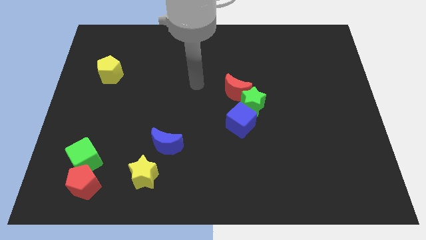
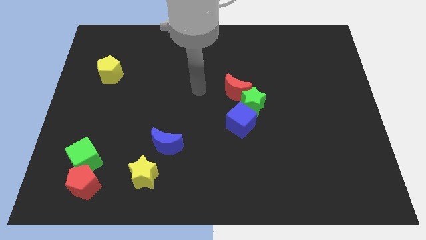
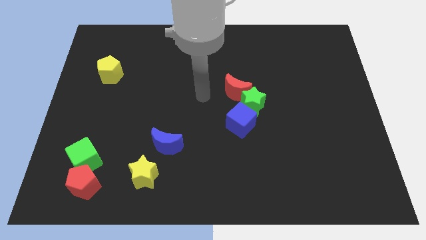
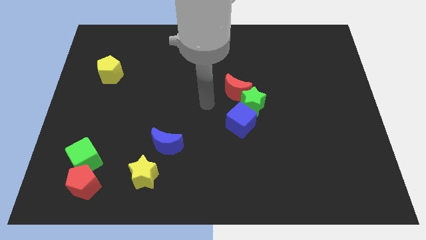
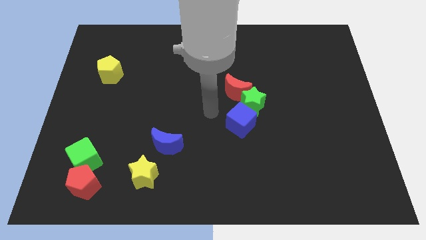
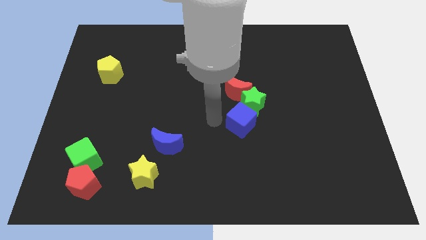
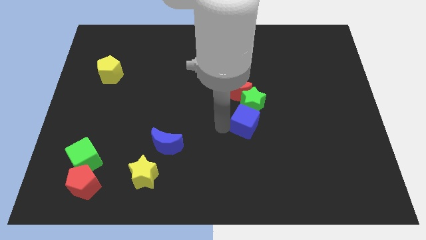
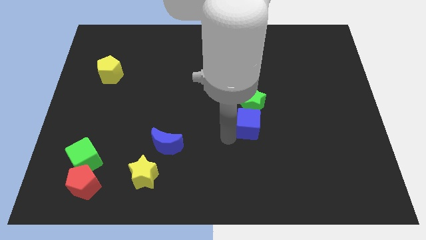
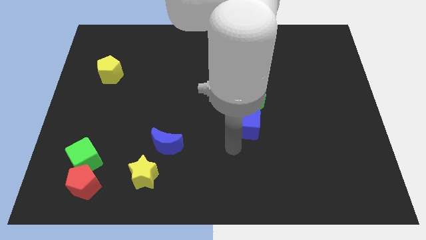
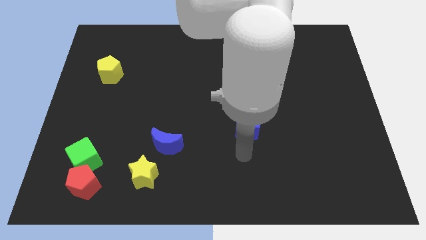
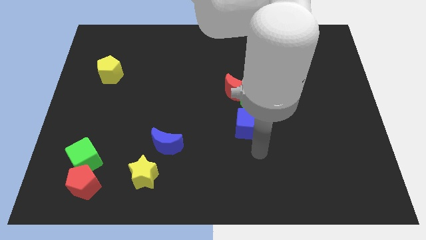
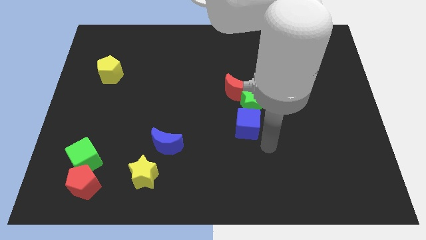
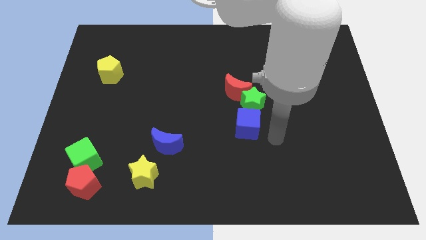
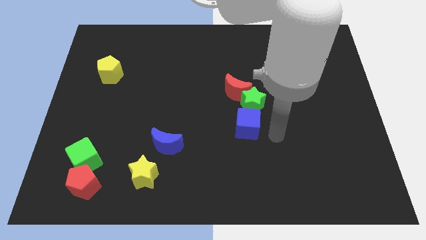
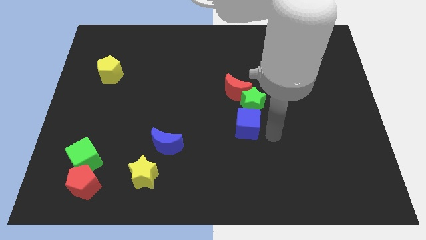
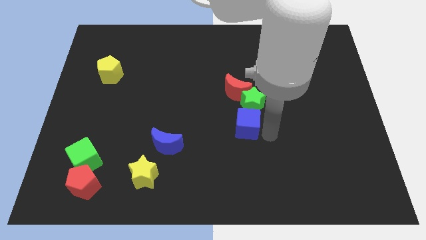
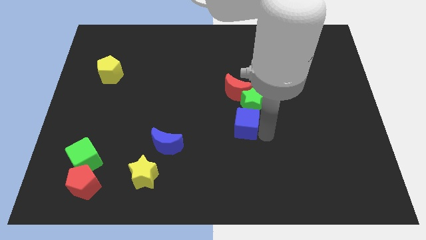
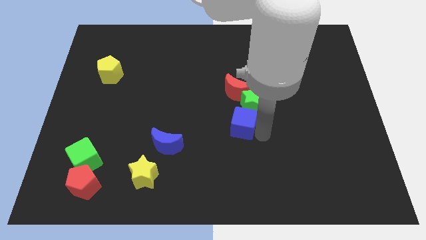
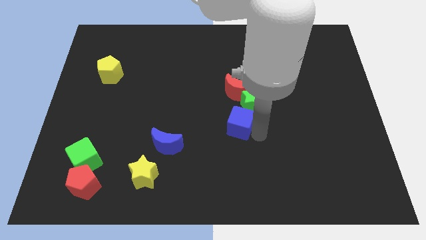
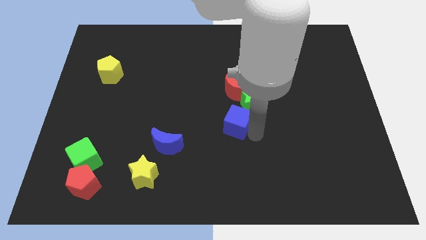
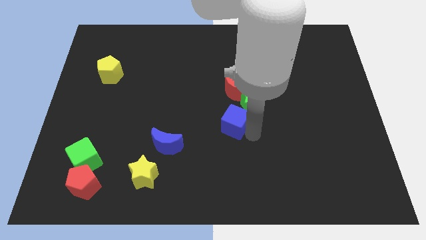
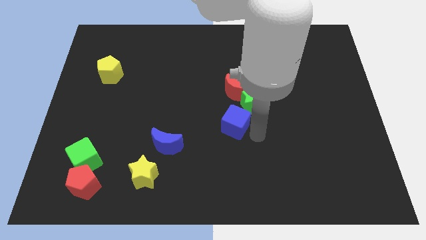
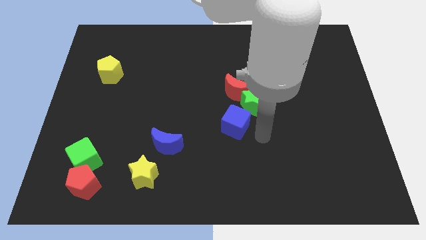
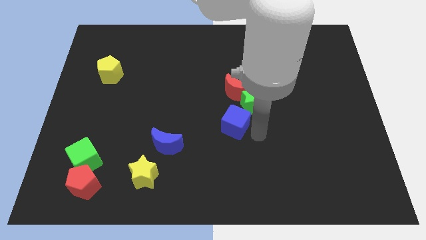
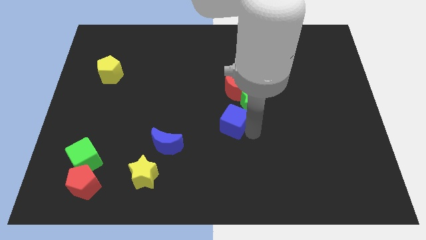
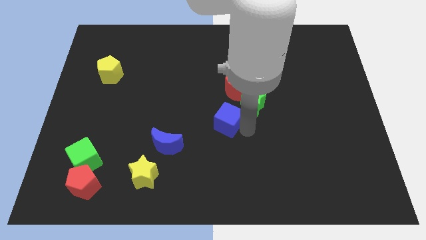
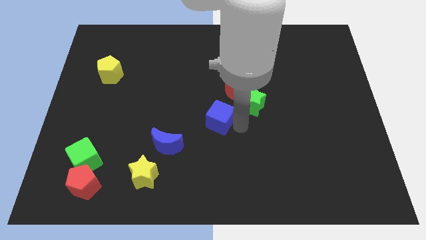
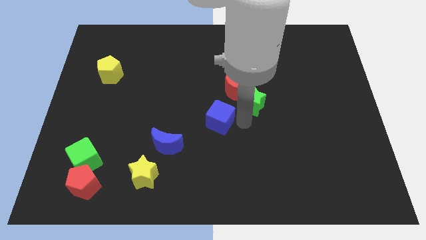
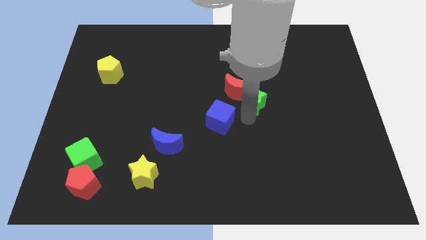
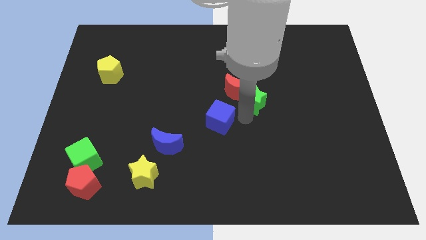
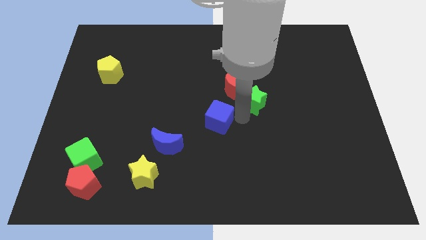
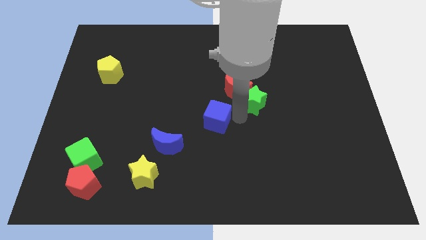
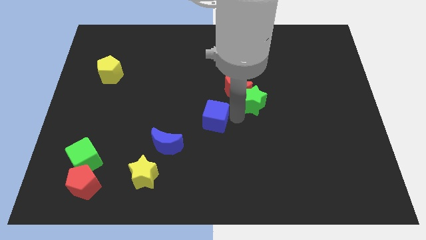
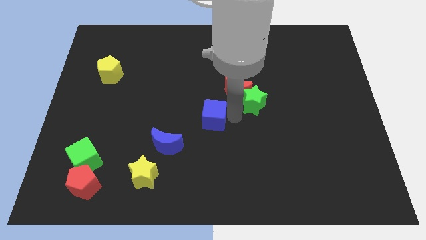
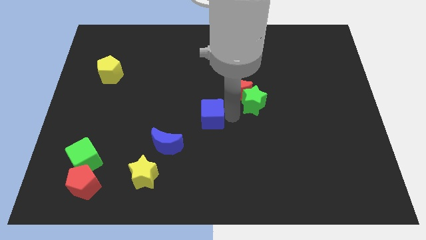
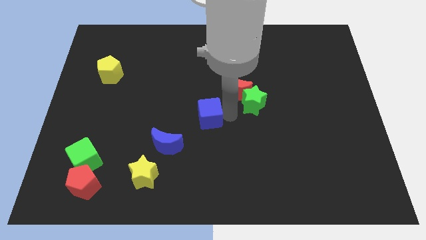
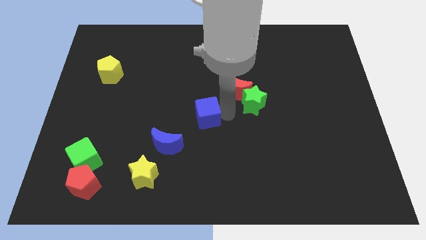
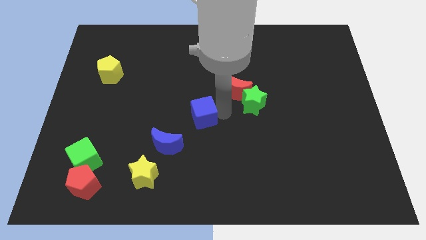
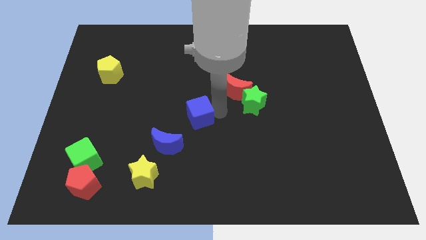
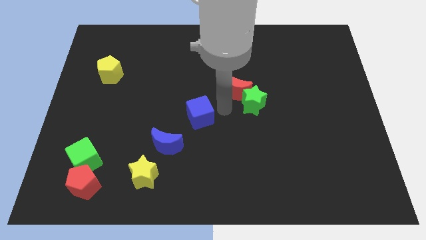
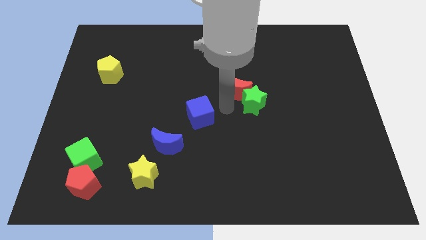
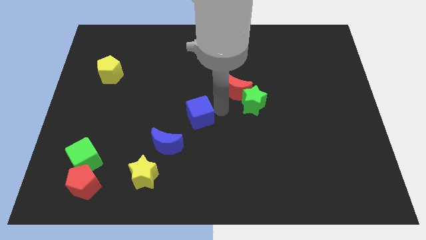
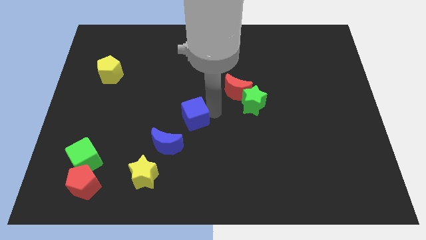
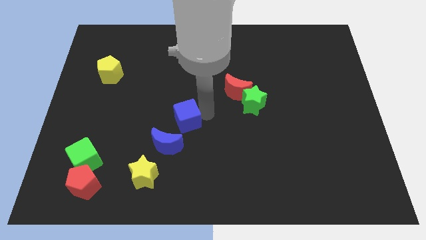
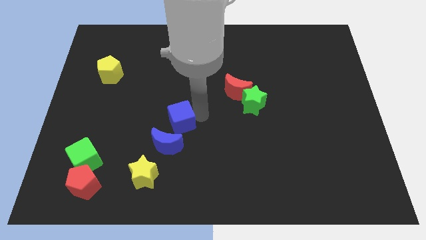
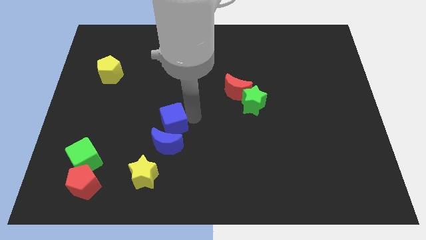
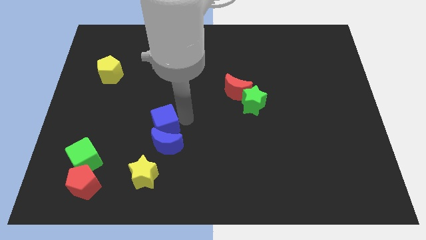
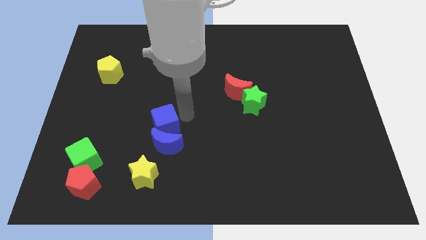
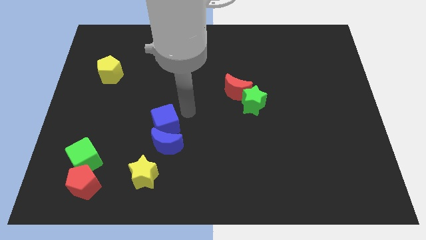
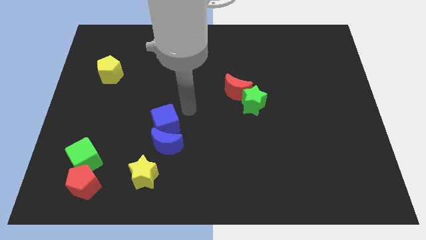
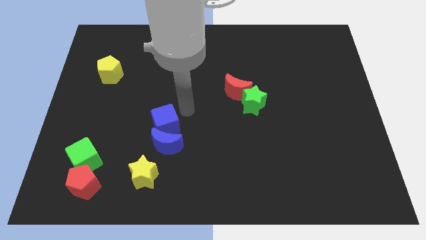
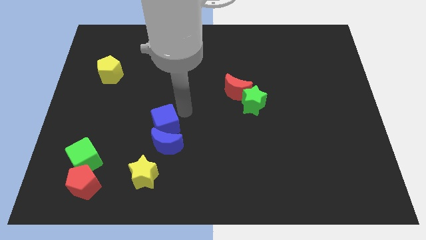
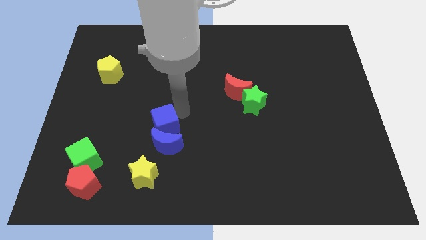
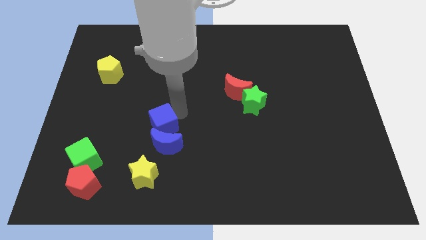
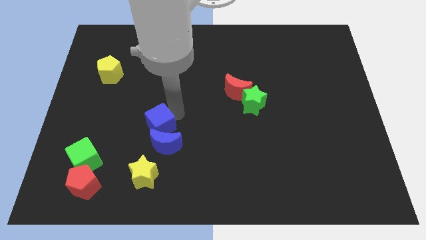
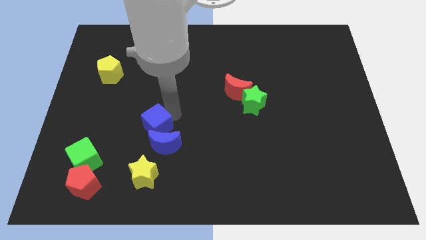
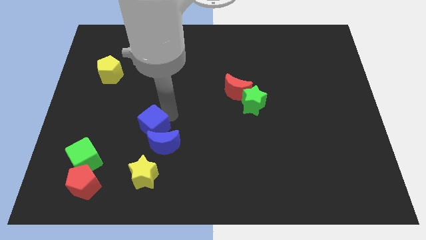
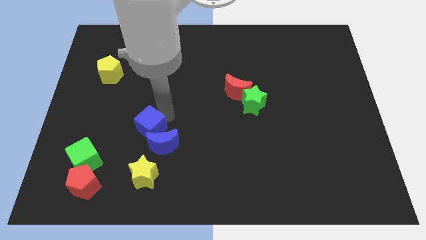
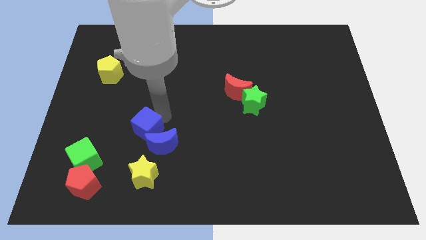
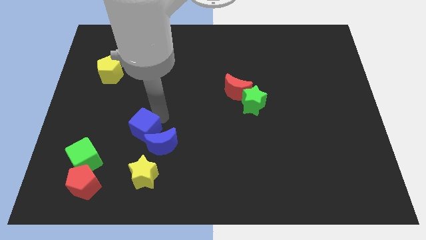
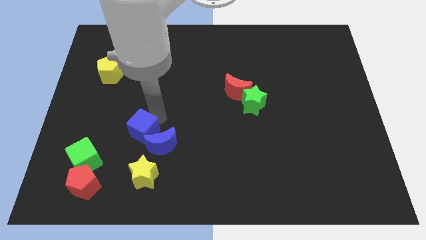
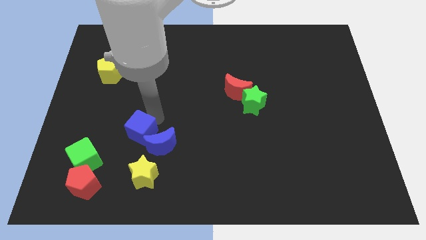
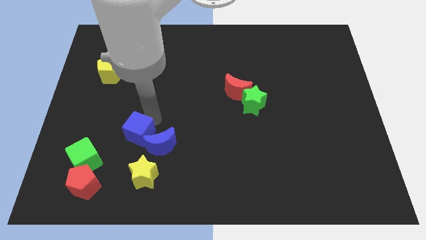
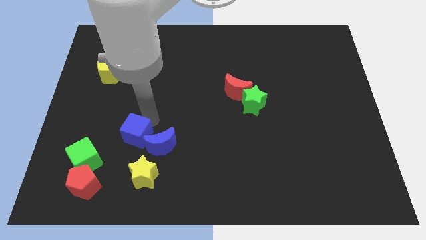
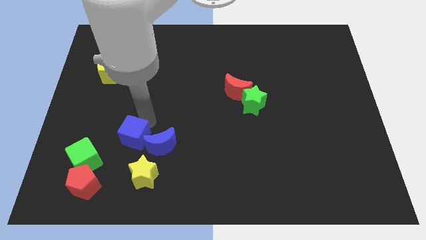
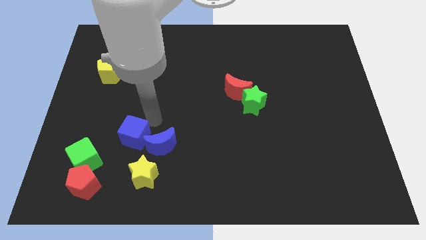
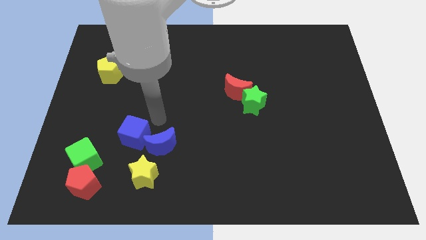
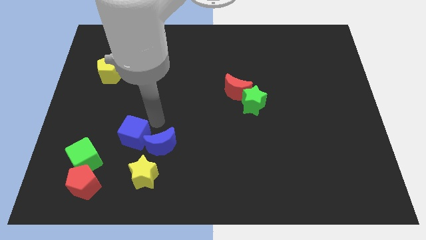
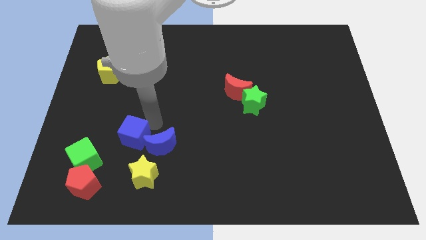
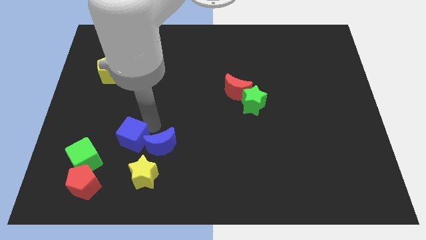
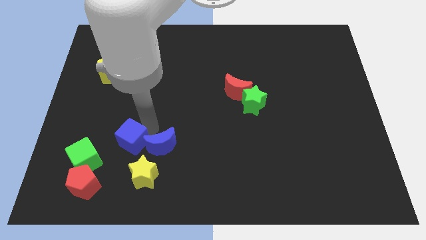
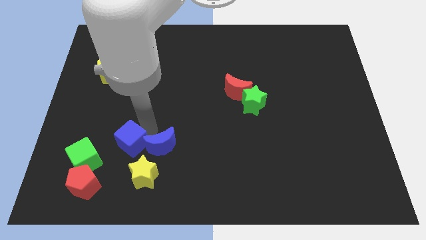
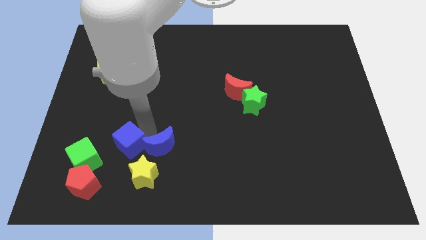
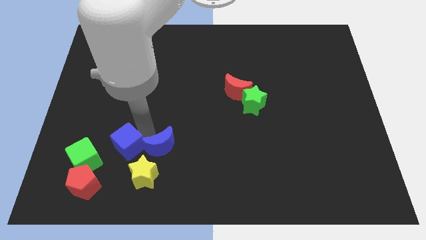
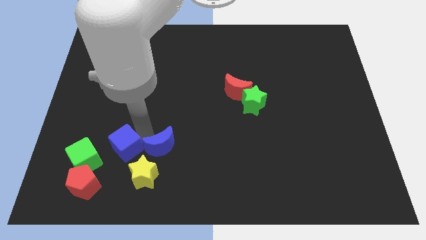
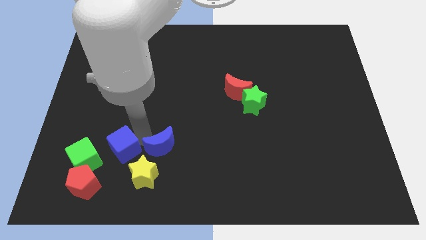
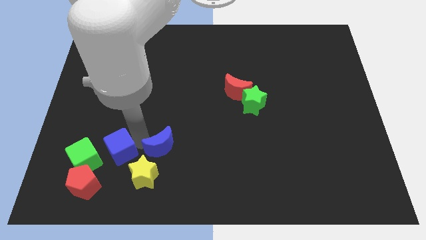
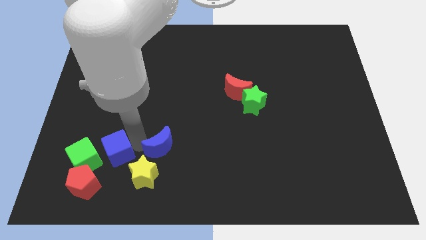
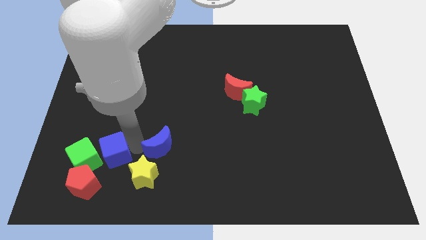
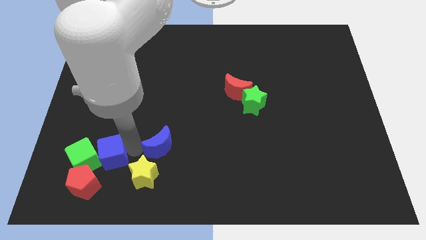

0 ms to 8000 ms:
put the blue cube towards the green cube

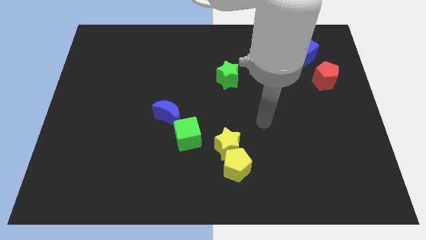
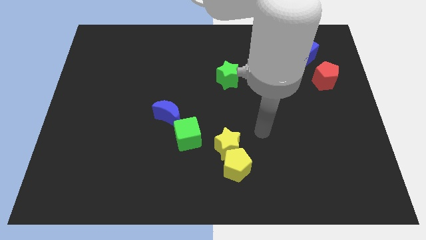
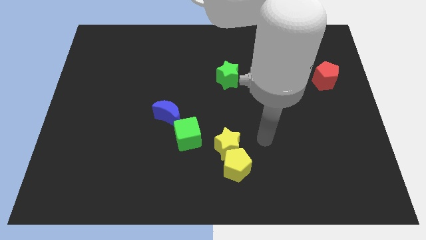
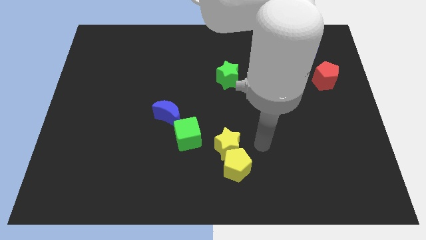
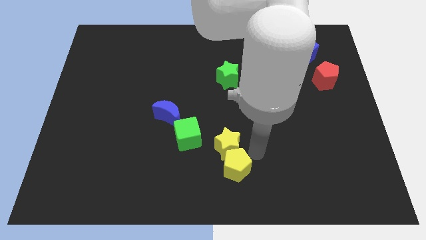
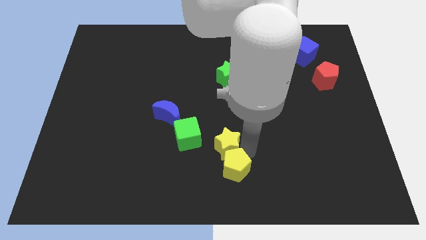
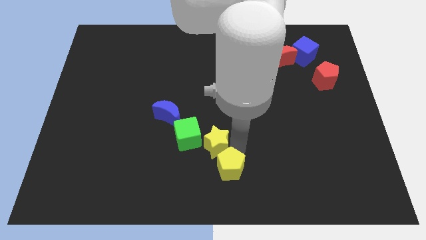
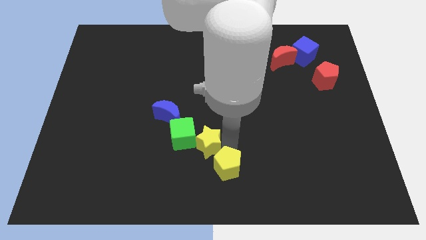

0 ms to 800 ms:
slide the yellow star next to the green cube
